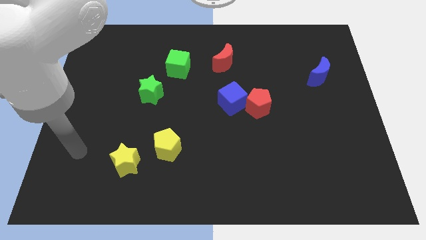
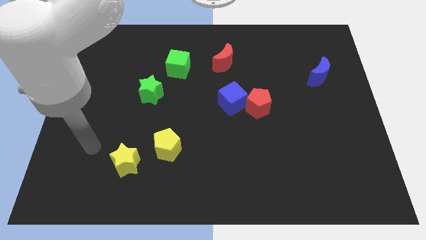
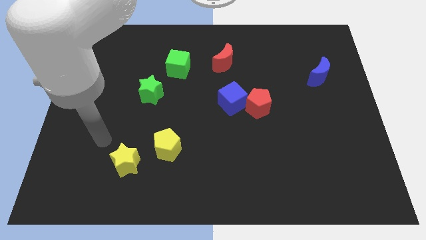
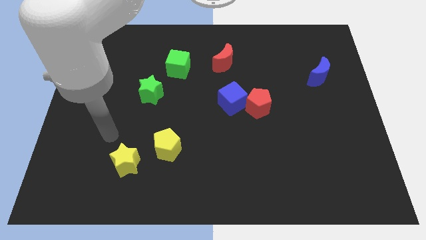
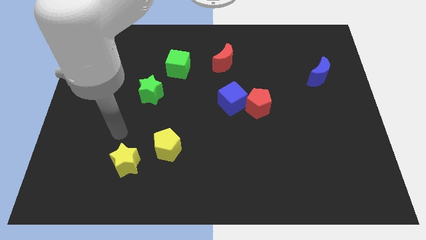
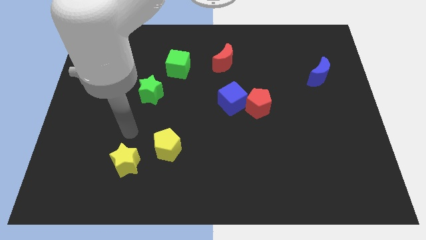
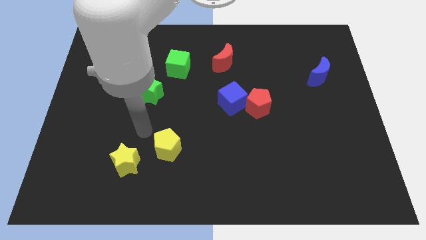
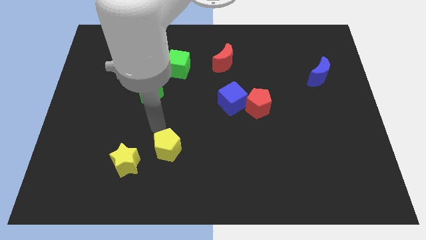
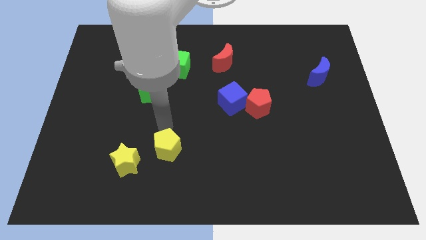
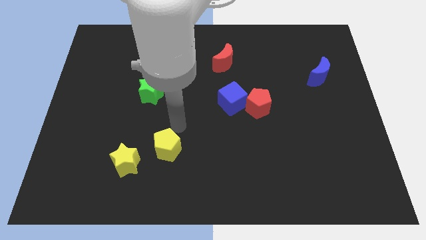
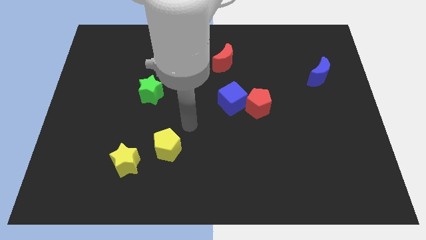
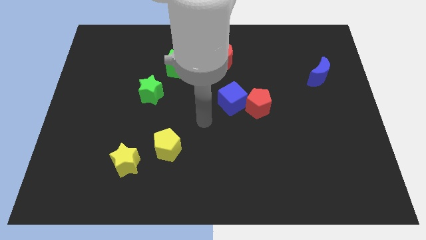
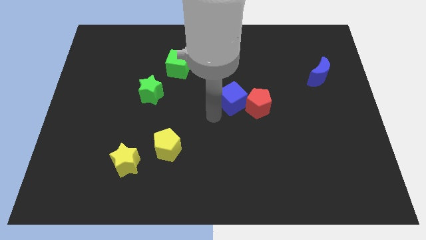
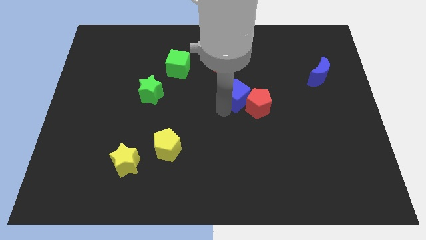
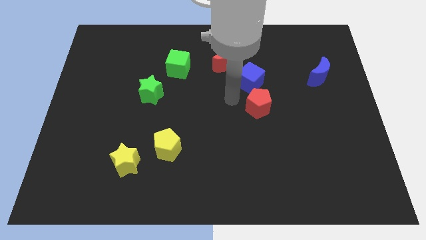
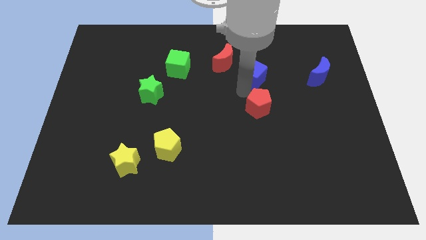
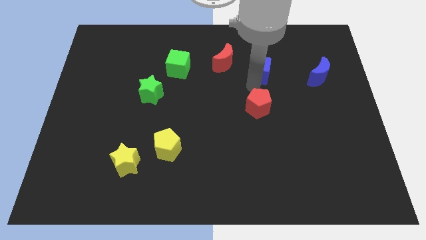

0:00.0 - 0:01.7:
move the red pentagon away from the blue cube

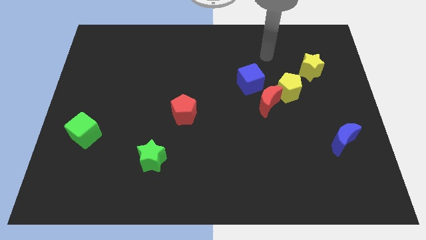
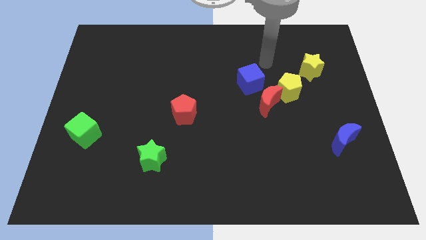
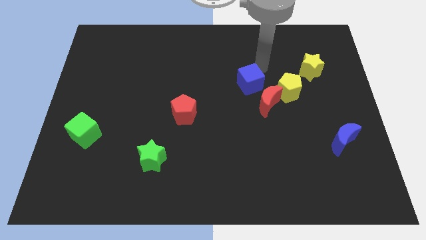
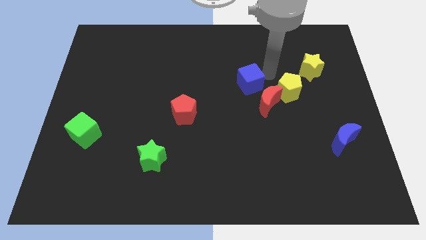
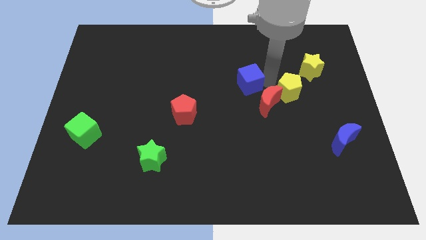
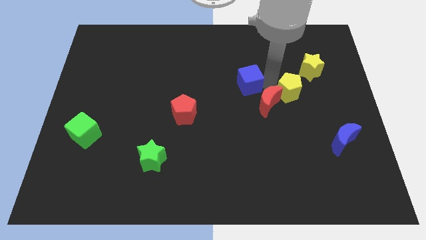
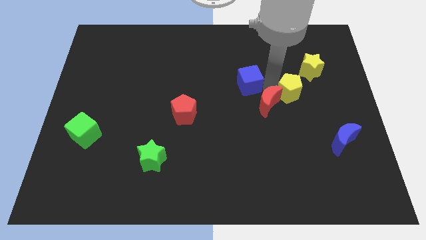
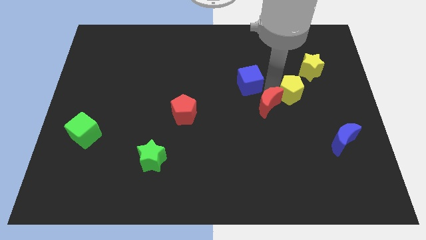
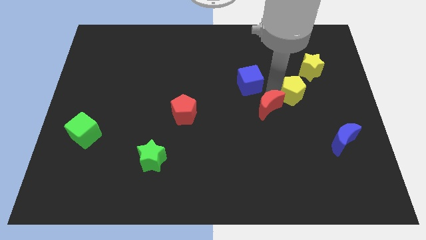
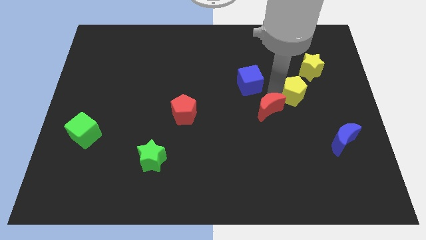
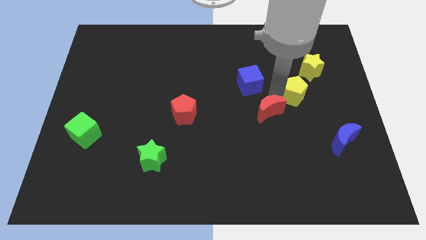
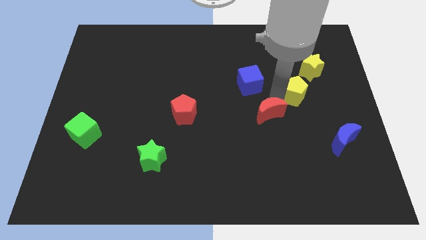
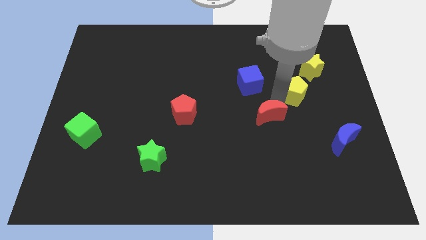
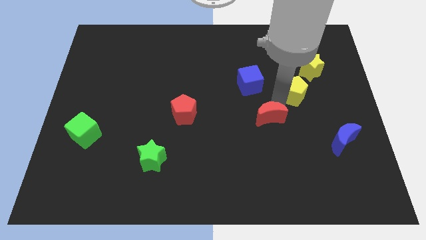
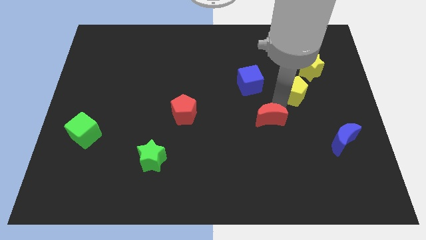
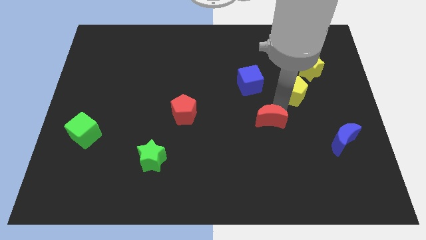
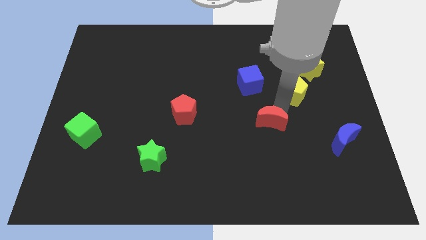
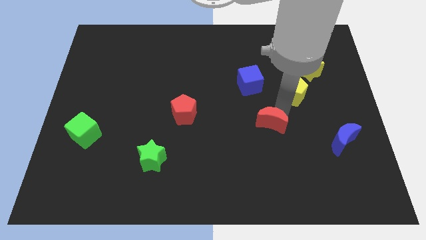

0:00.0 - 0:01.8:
pull the red moon apart from the yellow pentagon and blue cube

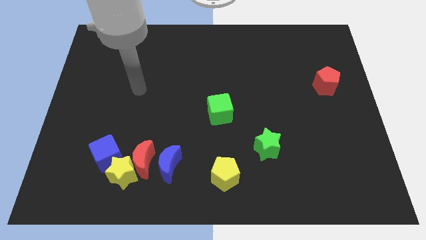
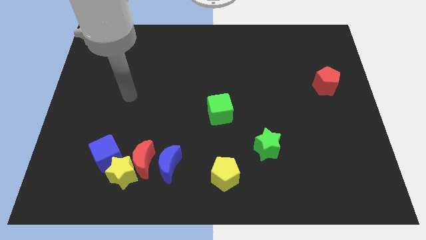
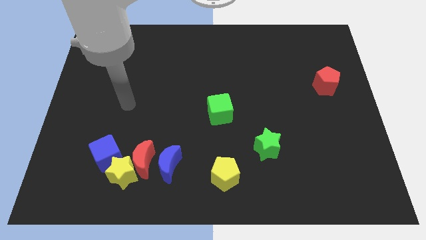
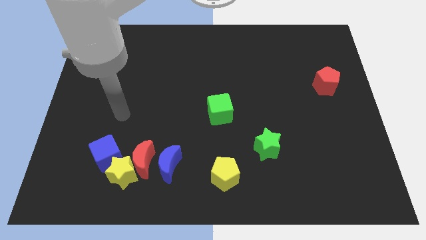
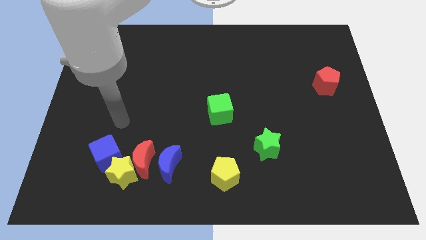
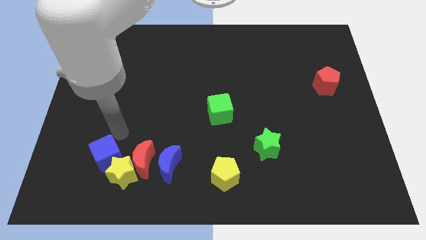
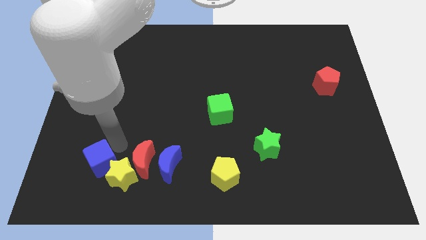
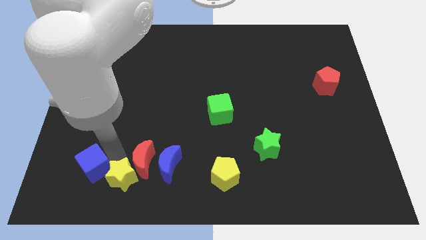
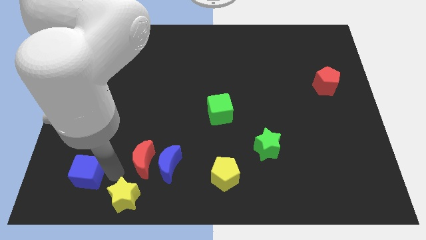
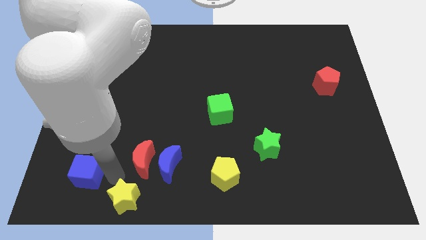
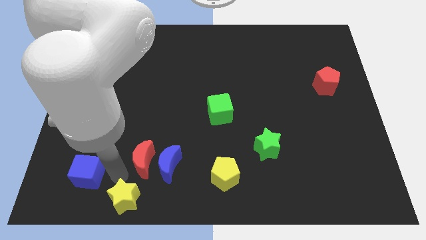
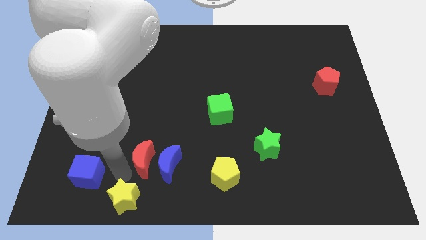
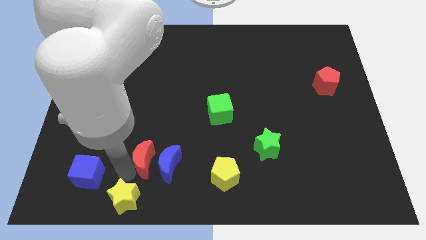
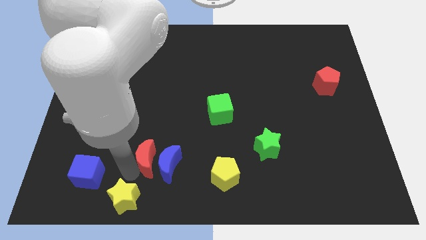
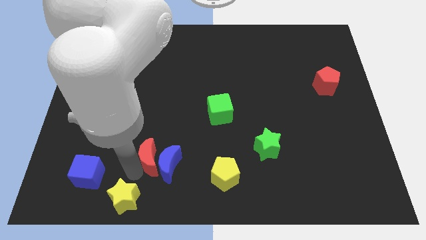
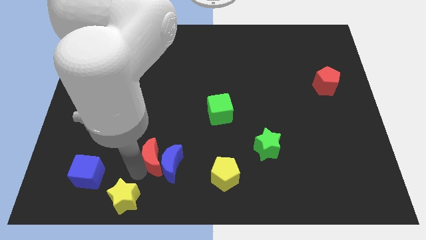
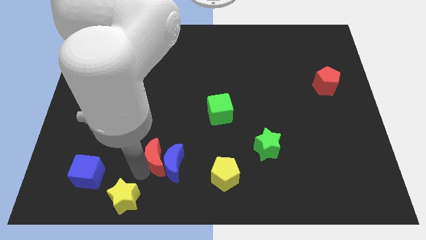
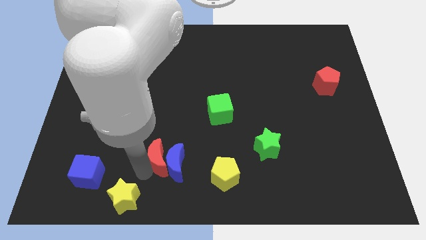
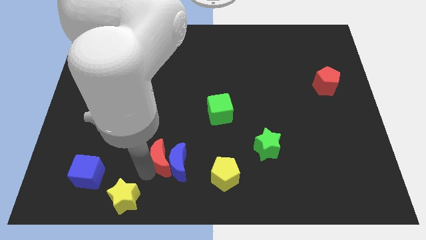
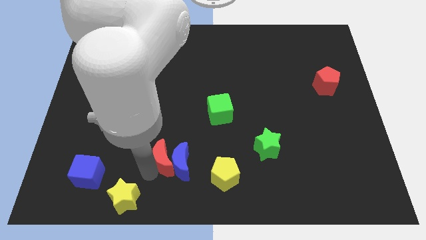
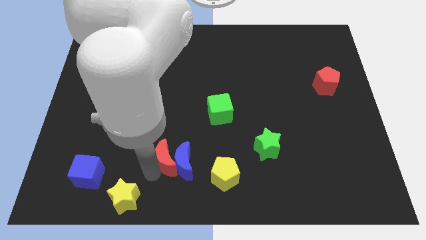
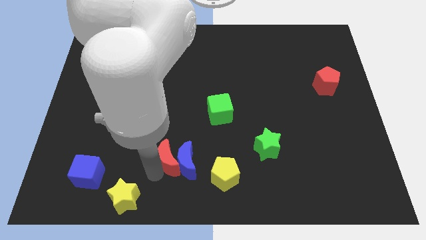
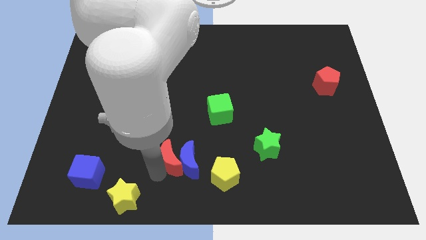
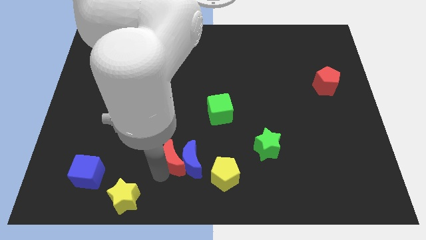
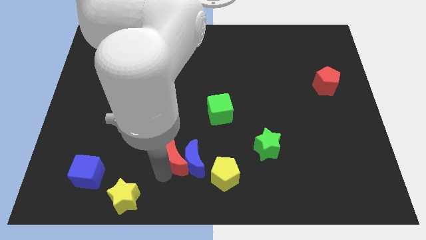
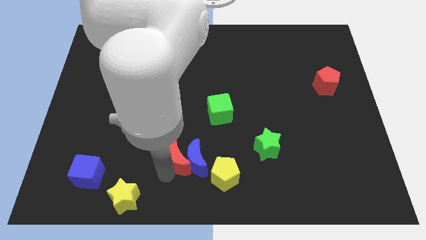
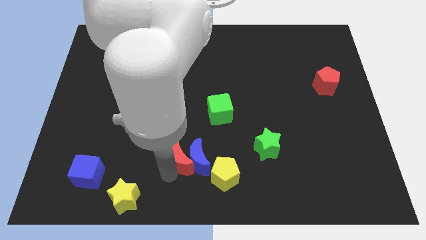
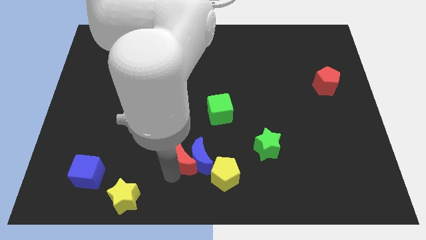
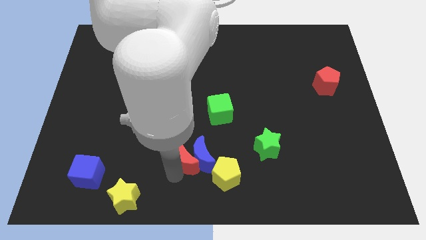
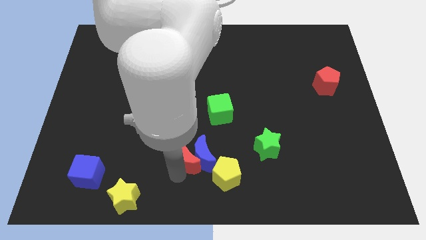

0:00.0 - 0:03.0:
pull the red moon apart from the group of blocks

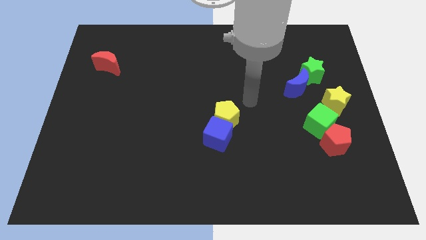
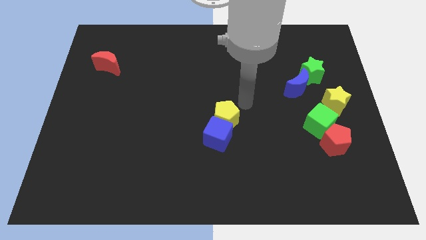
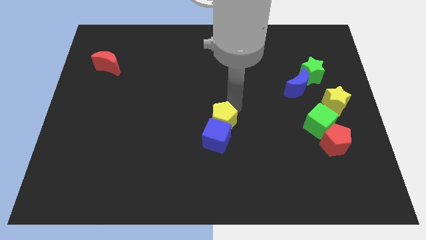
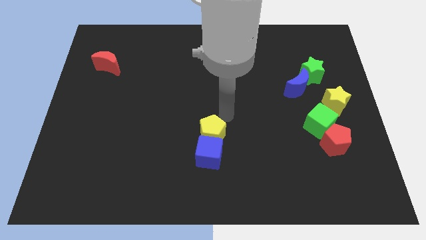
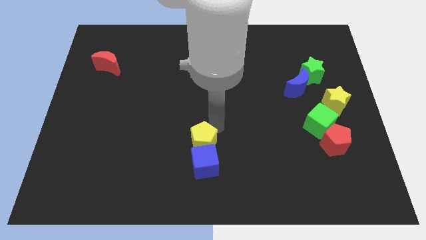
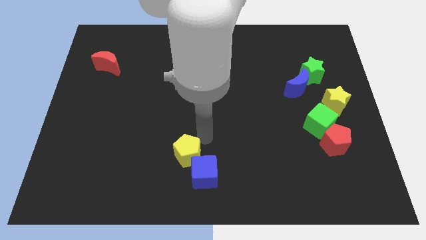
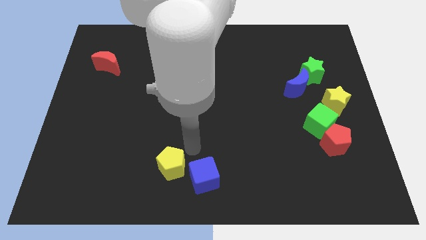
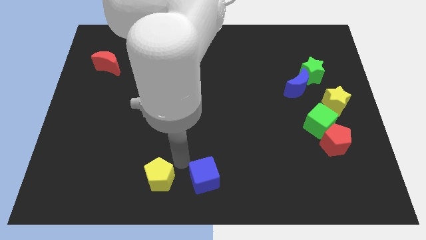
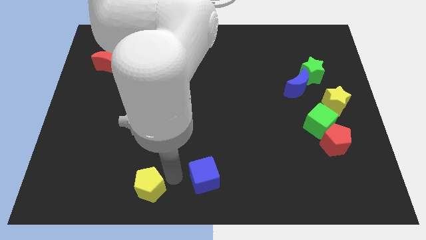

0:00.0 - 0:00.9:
separate the blue cube from the yellow pentagon

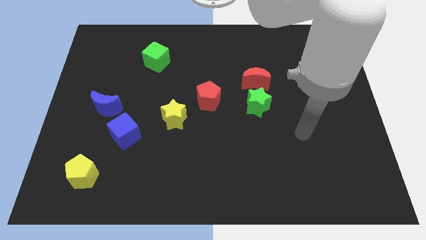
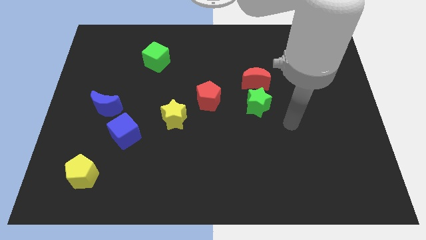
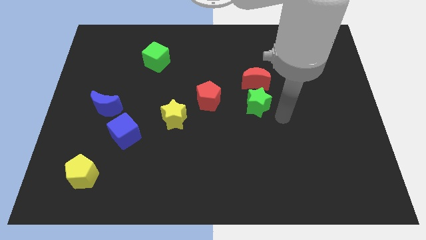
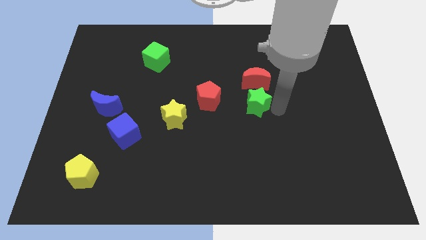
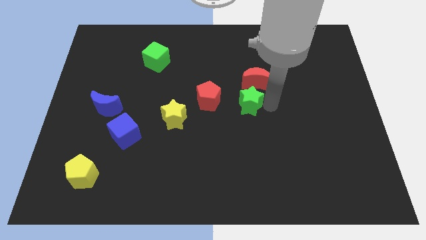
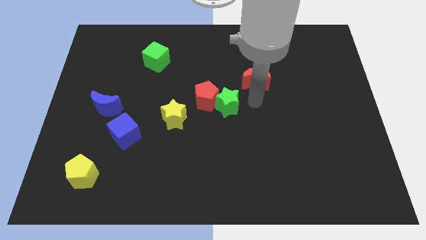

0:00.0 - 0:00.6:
move the red moon away from the green star

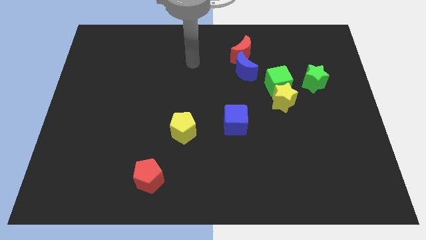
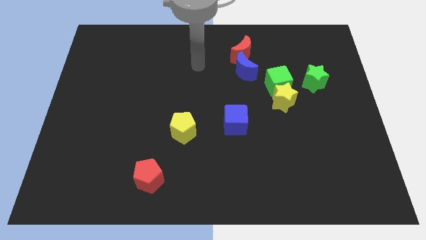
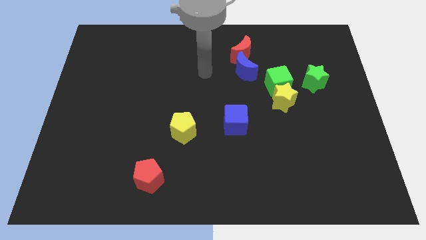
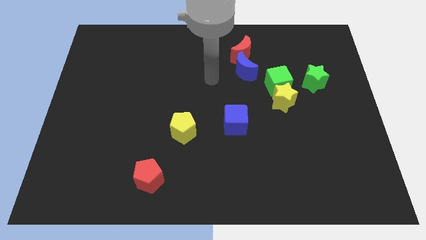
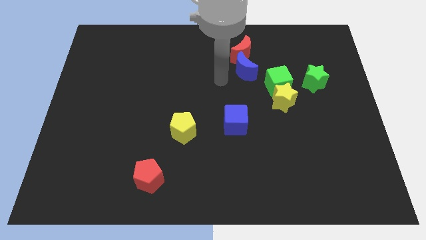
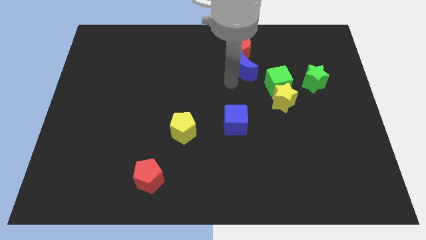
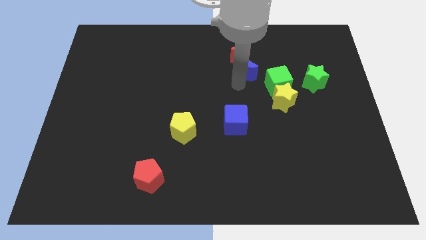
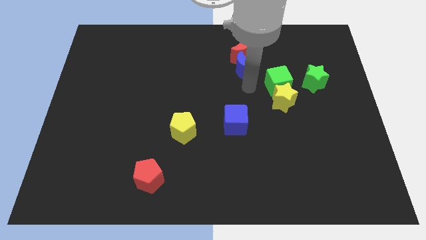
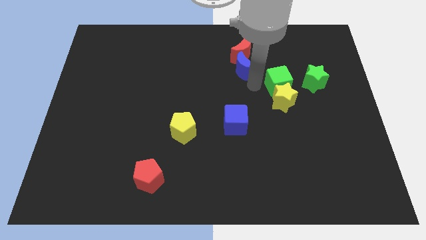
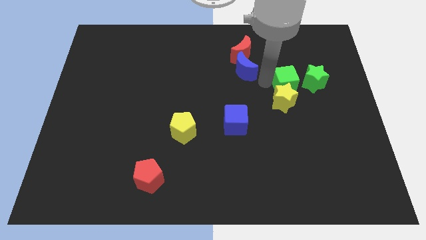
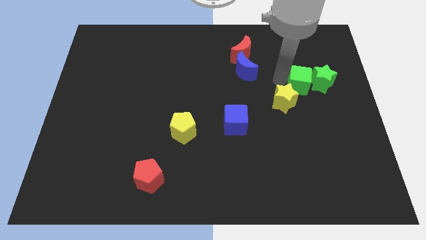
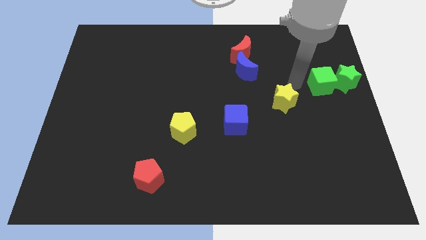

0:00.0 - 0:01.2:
separate the yellow star from the green cube

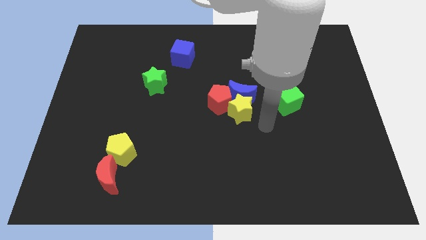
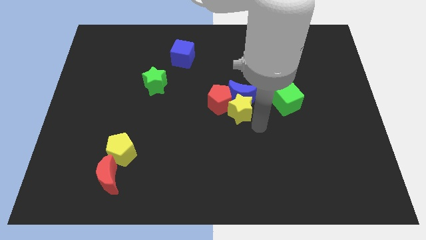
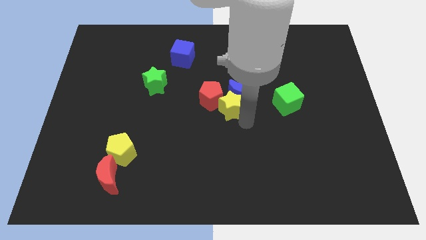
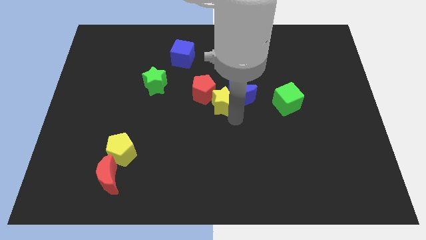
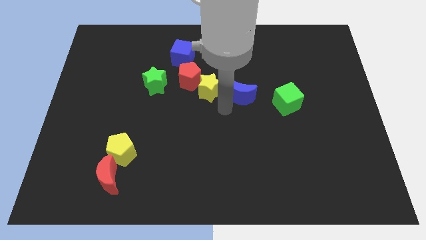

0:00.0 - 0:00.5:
pull the blue moon apart from the yellow star and red pentagon
